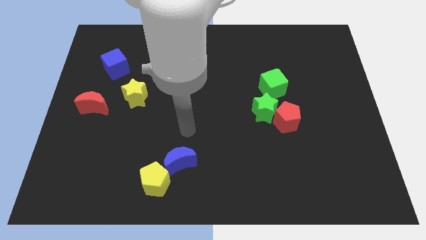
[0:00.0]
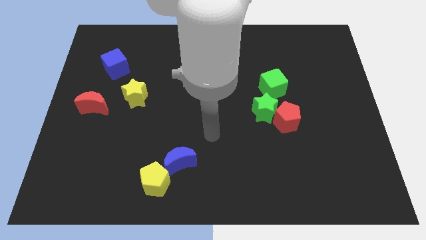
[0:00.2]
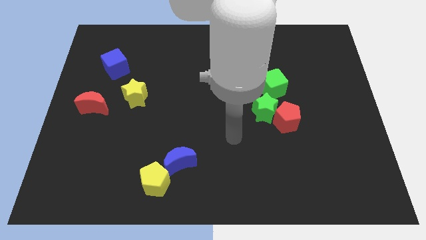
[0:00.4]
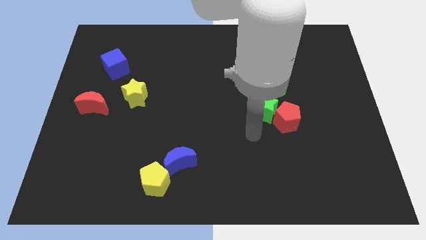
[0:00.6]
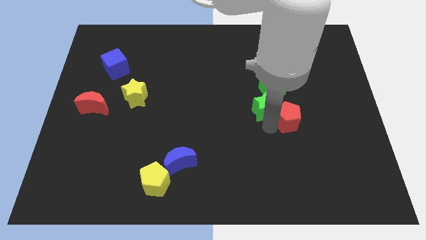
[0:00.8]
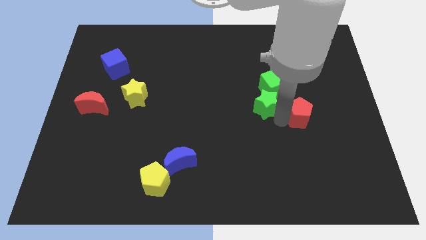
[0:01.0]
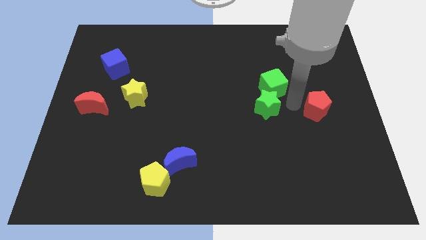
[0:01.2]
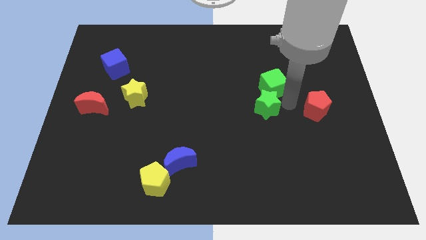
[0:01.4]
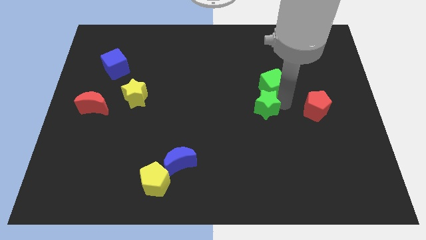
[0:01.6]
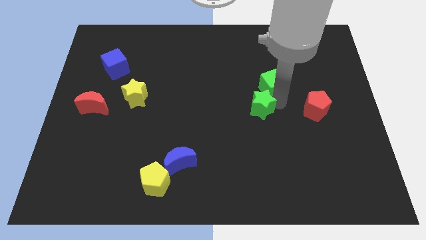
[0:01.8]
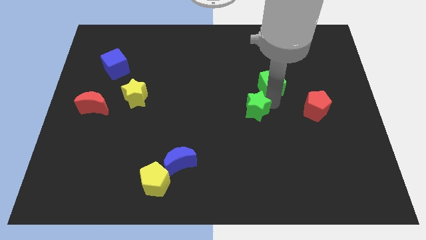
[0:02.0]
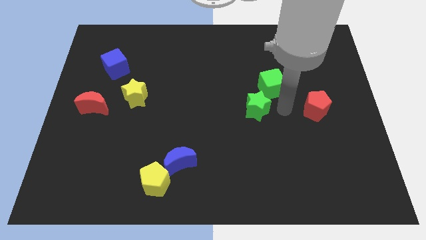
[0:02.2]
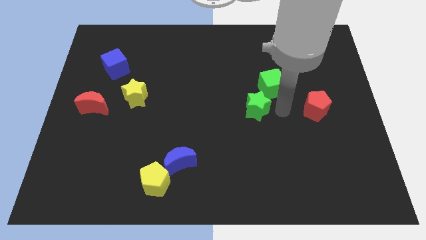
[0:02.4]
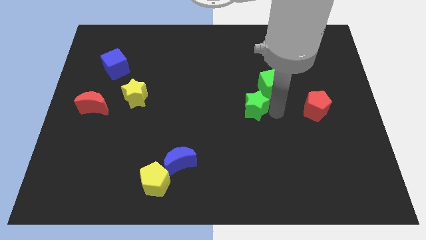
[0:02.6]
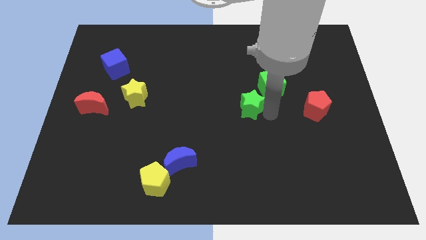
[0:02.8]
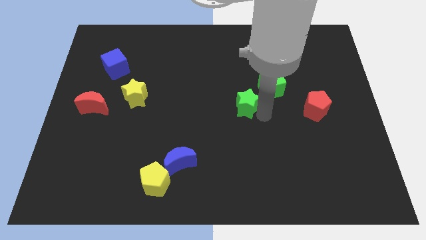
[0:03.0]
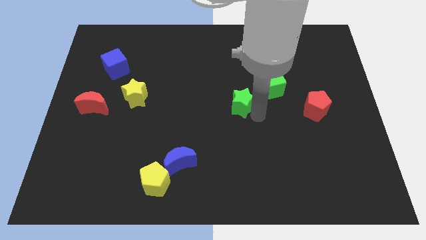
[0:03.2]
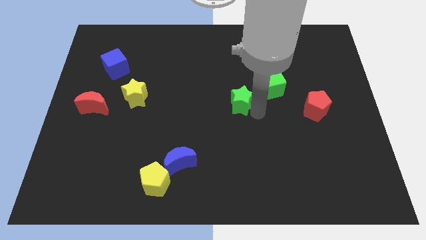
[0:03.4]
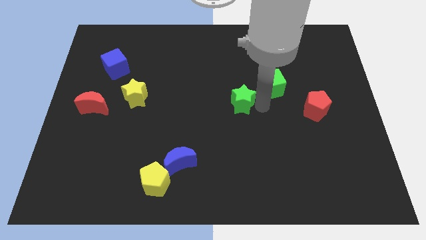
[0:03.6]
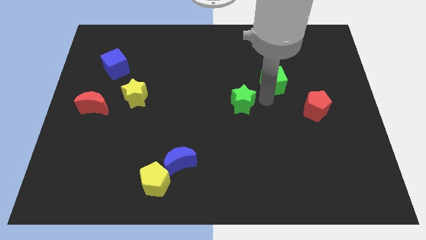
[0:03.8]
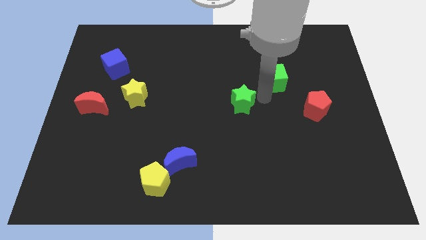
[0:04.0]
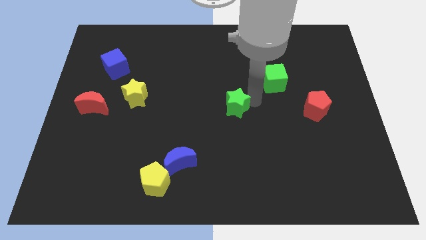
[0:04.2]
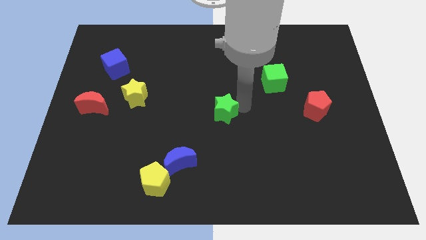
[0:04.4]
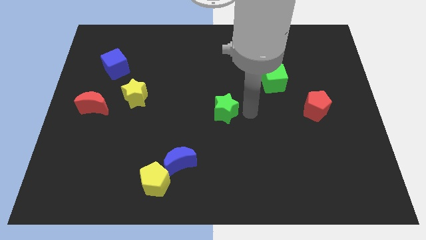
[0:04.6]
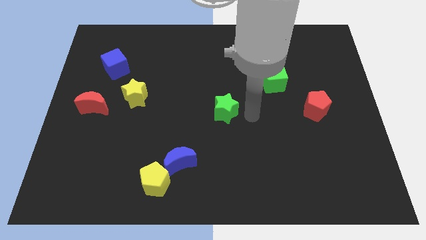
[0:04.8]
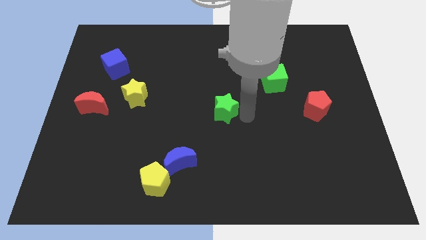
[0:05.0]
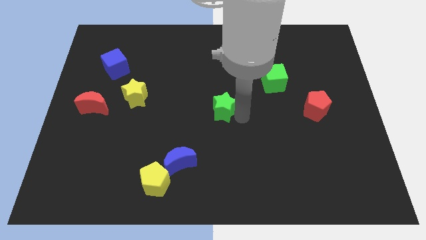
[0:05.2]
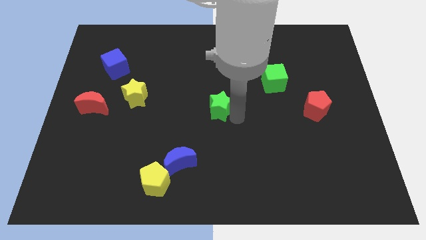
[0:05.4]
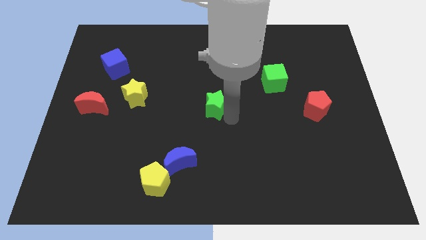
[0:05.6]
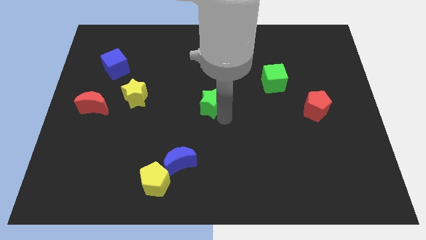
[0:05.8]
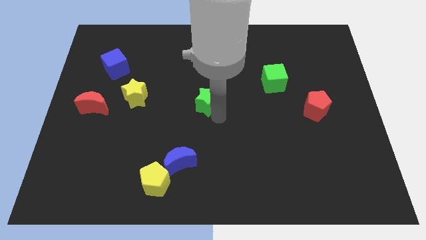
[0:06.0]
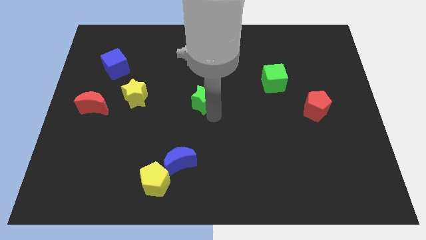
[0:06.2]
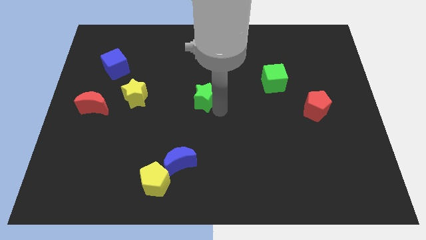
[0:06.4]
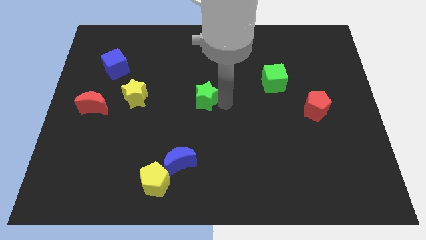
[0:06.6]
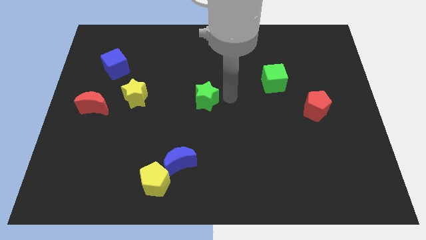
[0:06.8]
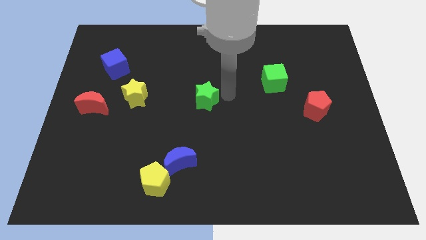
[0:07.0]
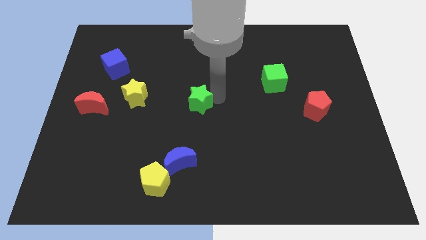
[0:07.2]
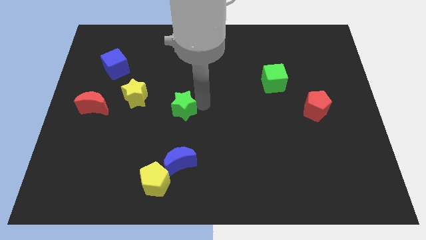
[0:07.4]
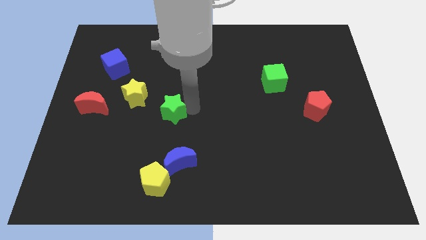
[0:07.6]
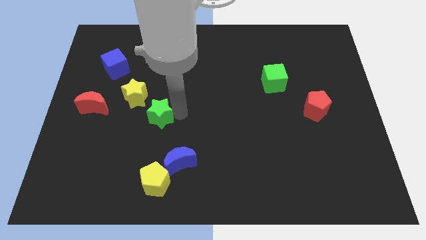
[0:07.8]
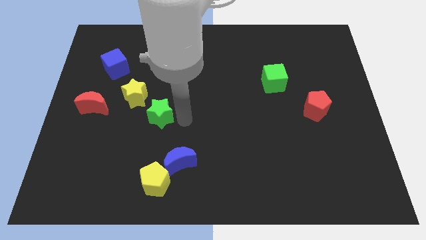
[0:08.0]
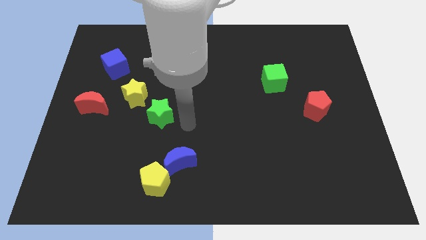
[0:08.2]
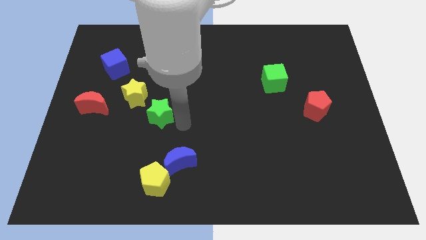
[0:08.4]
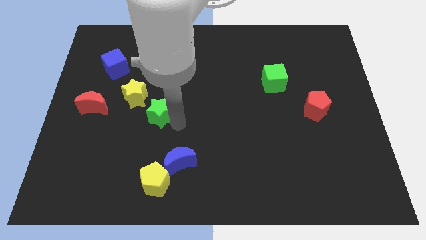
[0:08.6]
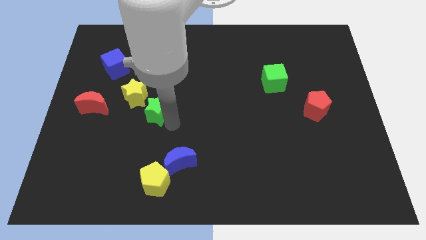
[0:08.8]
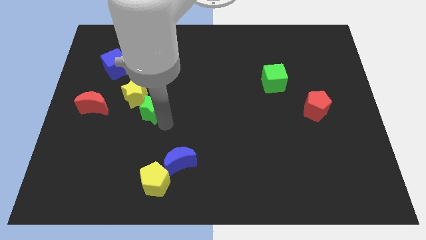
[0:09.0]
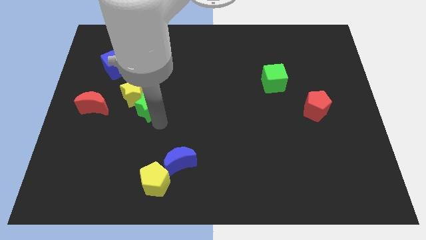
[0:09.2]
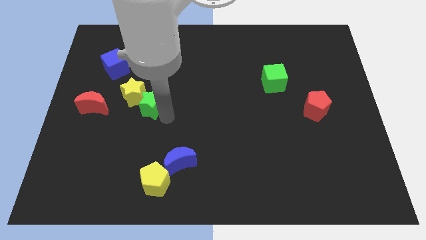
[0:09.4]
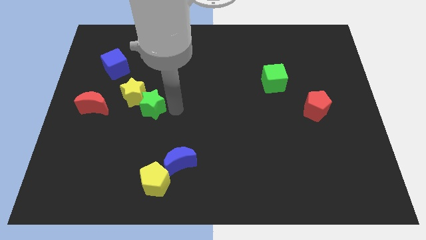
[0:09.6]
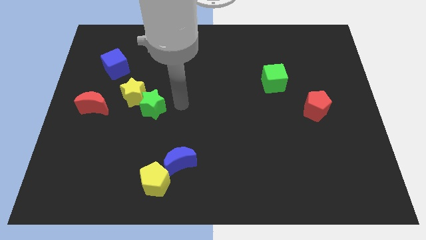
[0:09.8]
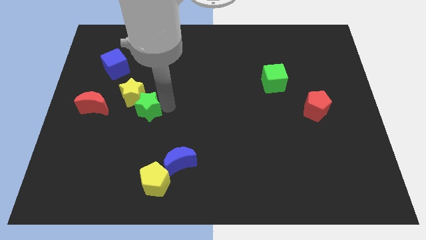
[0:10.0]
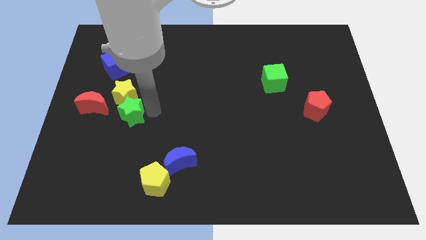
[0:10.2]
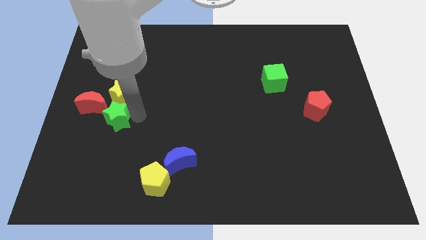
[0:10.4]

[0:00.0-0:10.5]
put the green star to the bottom left of the yellow star

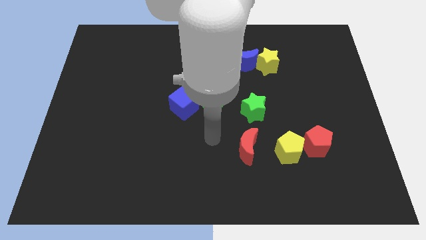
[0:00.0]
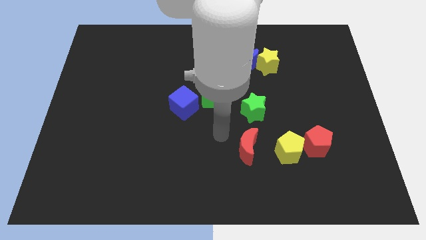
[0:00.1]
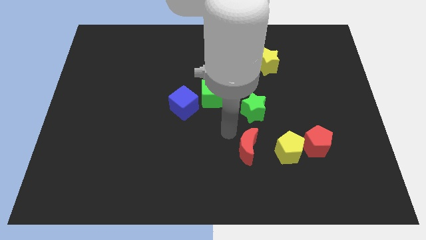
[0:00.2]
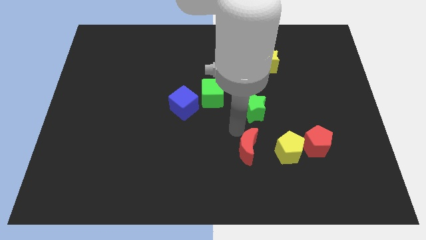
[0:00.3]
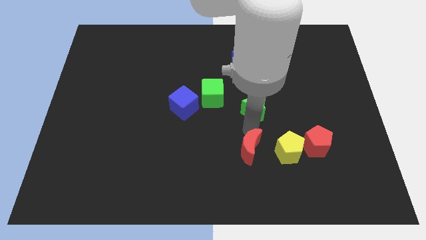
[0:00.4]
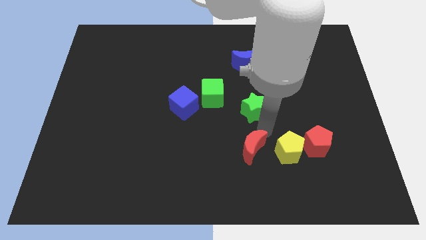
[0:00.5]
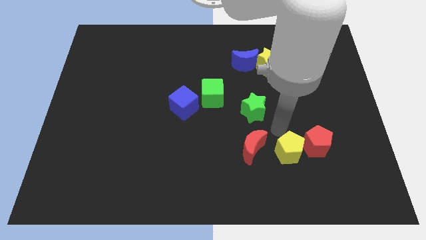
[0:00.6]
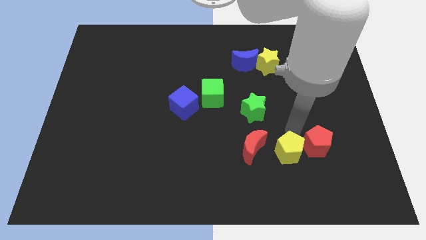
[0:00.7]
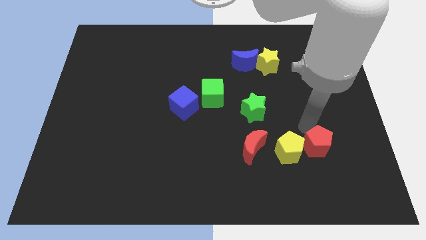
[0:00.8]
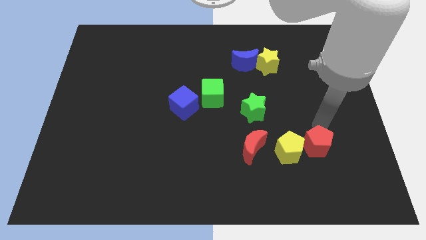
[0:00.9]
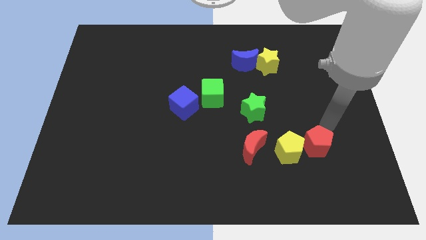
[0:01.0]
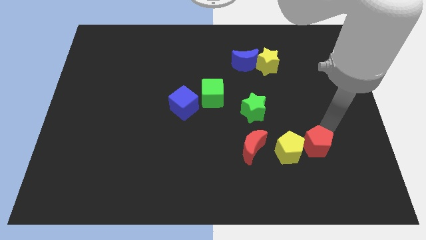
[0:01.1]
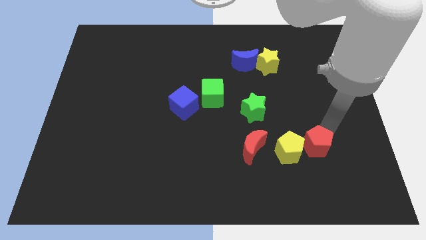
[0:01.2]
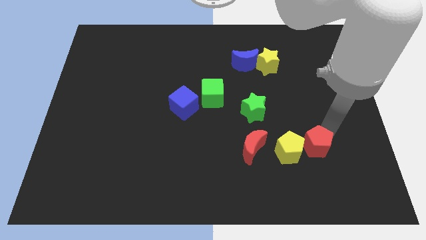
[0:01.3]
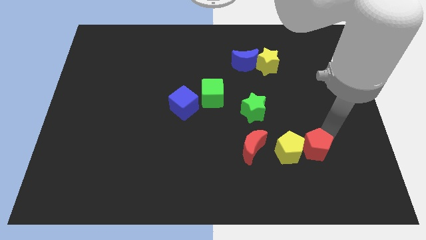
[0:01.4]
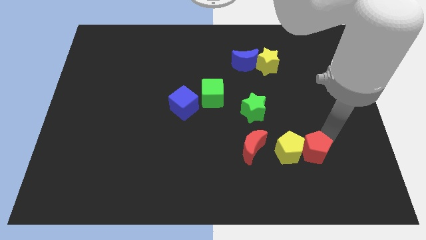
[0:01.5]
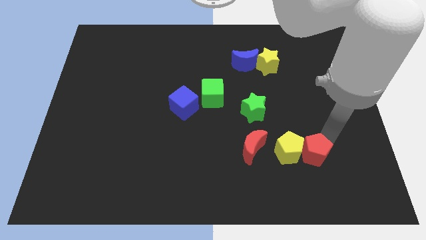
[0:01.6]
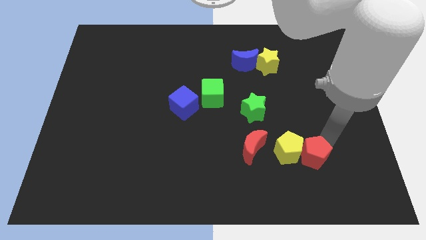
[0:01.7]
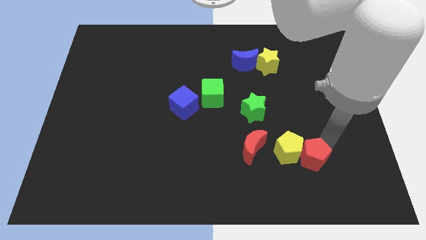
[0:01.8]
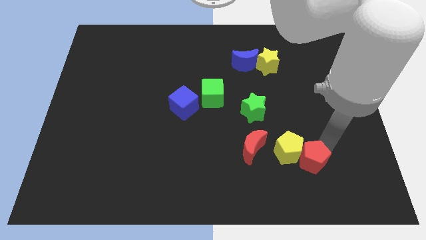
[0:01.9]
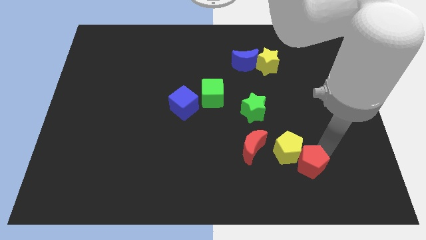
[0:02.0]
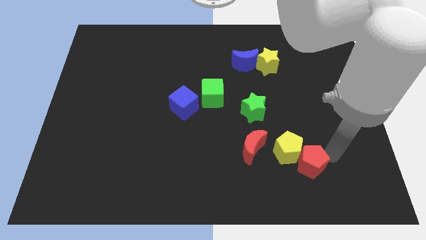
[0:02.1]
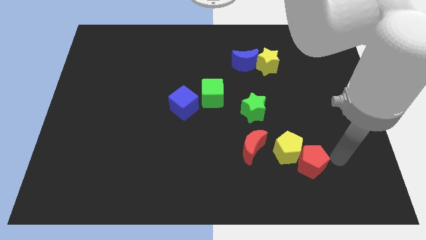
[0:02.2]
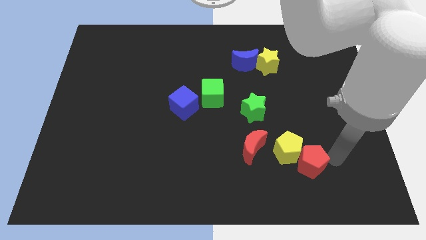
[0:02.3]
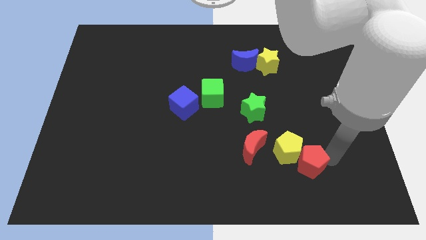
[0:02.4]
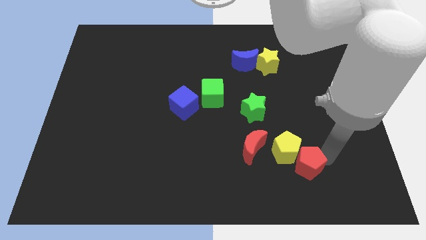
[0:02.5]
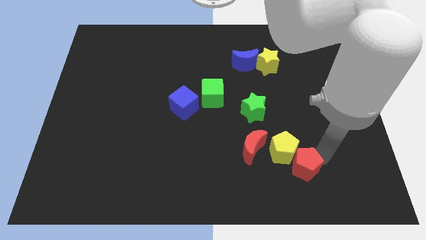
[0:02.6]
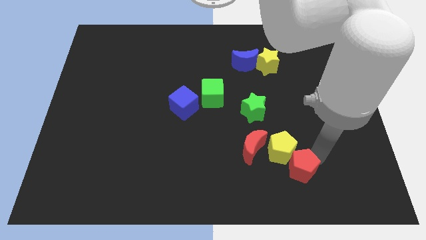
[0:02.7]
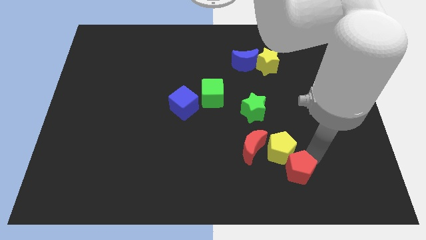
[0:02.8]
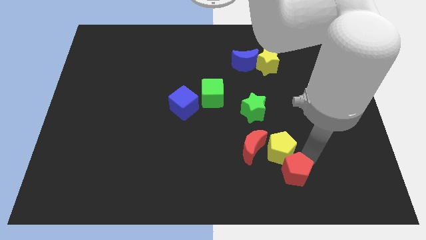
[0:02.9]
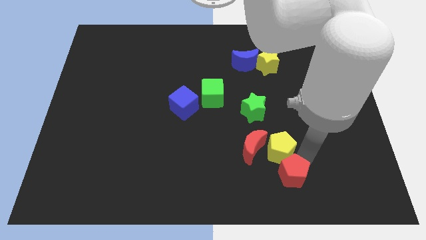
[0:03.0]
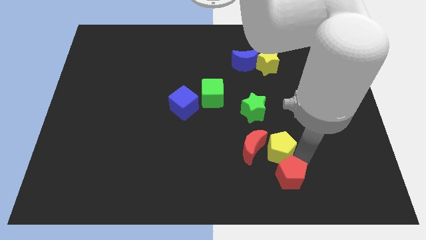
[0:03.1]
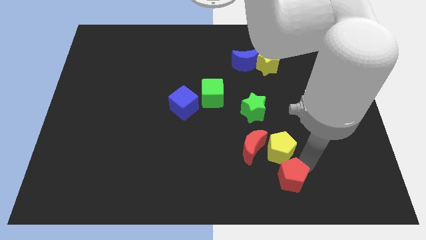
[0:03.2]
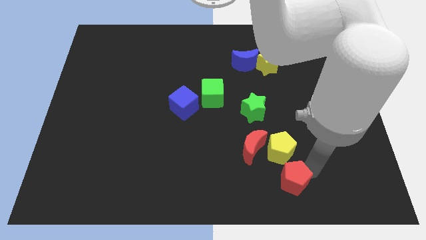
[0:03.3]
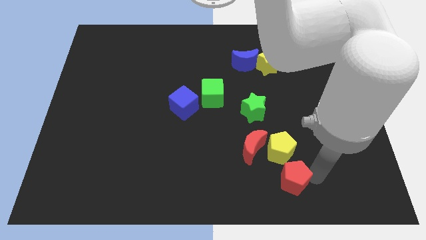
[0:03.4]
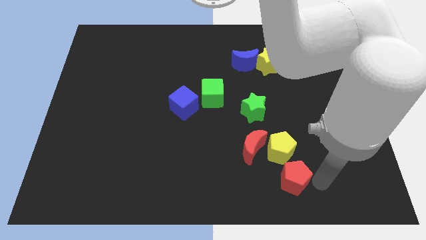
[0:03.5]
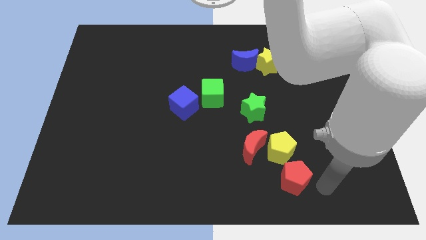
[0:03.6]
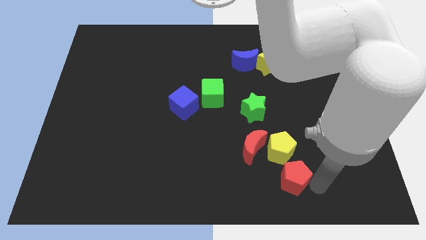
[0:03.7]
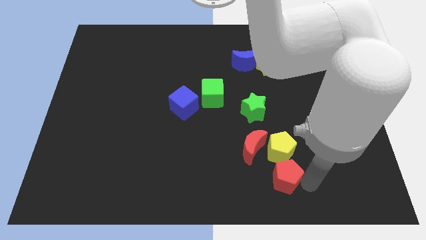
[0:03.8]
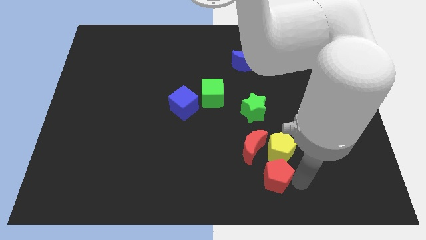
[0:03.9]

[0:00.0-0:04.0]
push the red pentagon diagonally down and to the left of the yellow pentagon
